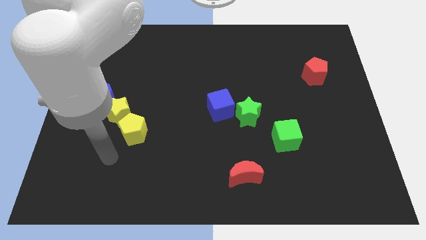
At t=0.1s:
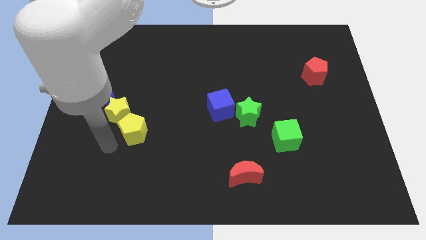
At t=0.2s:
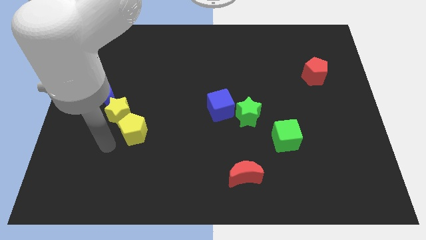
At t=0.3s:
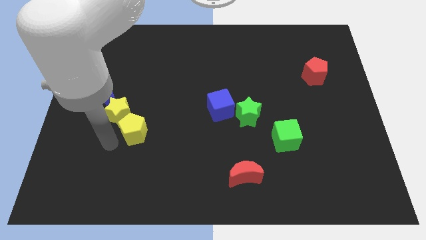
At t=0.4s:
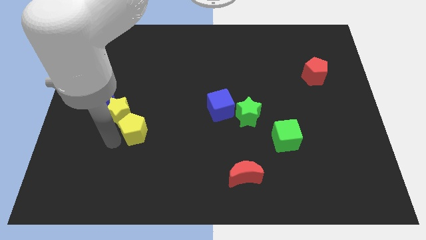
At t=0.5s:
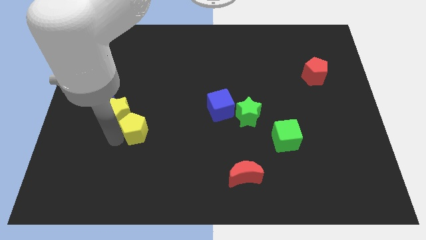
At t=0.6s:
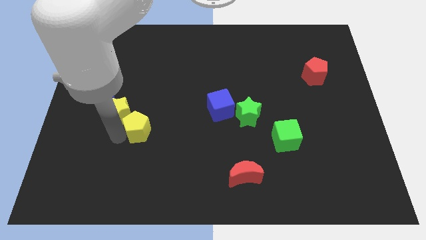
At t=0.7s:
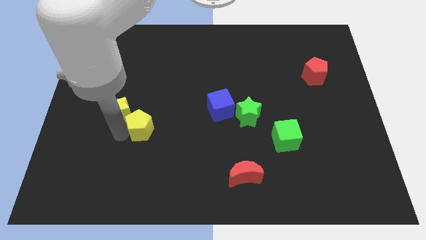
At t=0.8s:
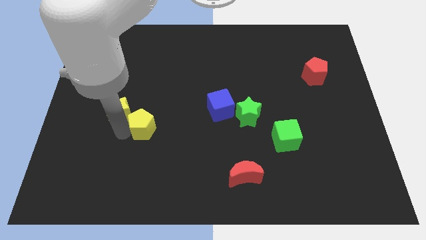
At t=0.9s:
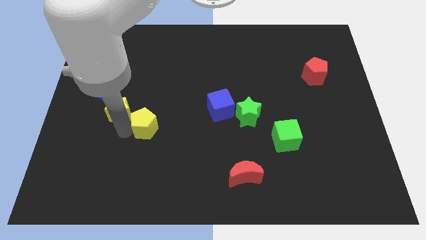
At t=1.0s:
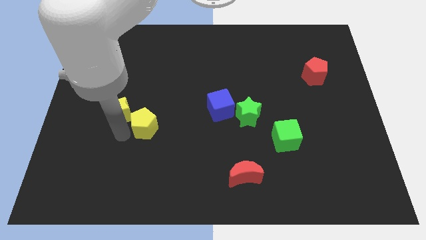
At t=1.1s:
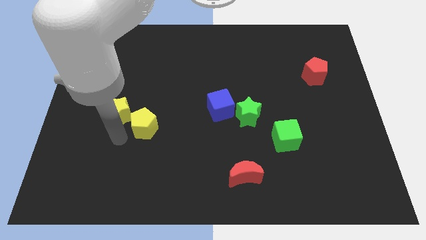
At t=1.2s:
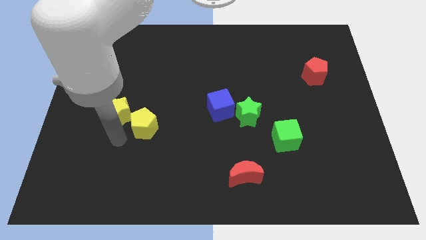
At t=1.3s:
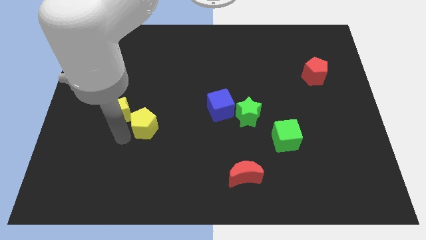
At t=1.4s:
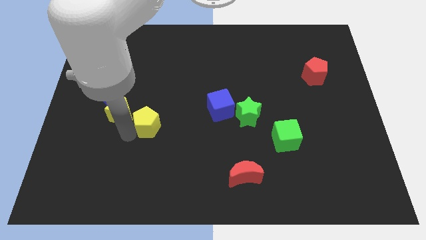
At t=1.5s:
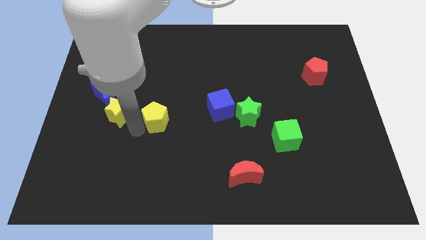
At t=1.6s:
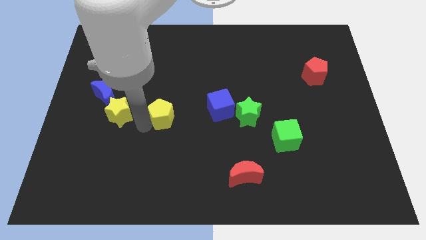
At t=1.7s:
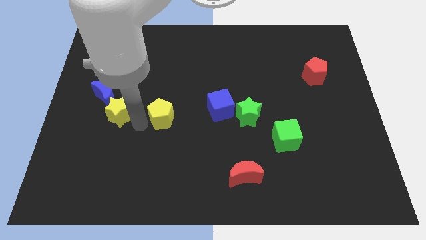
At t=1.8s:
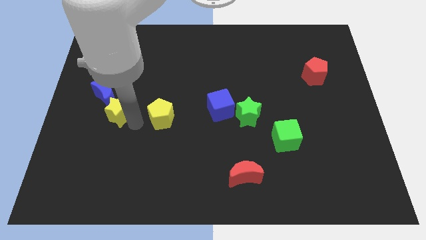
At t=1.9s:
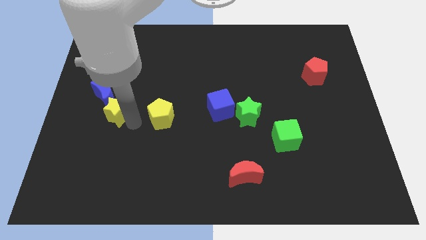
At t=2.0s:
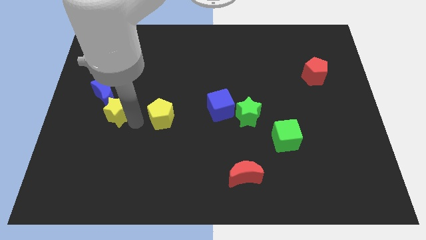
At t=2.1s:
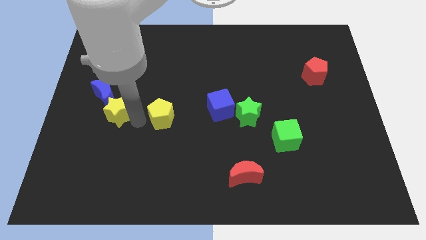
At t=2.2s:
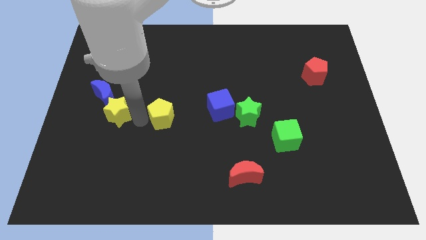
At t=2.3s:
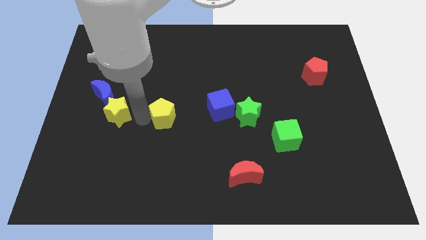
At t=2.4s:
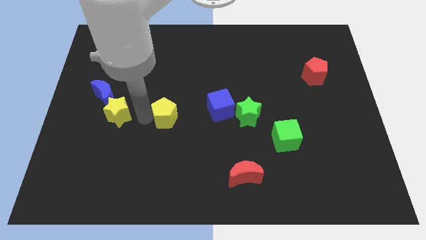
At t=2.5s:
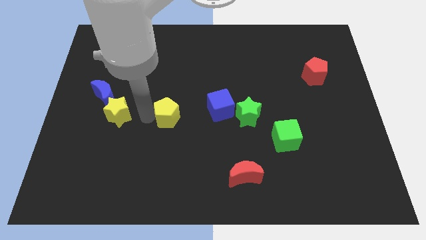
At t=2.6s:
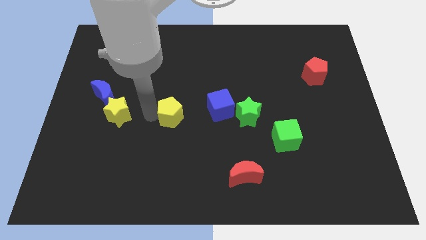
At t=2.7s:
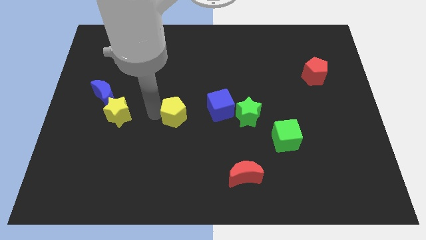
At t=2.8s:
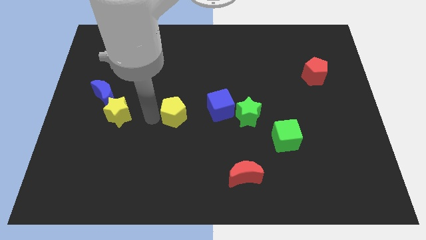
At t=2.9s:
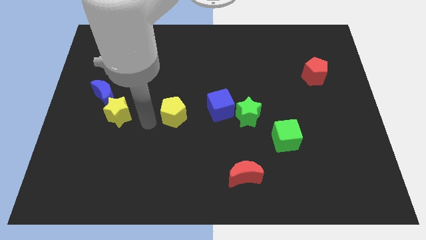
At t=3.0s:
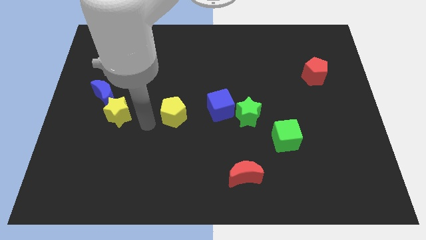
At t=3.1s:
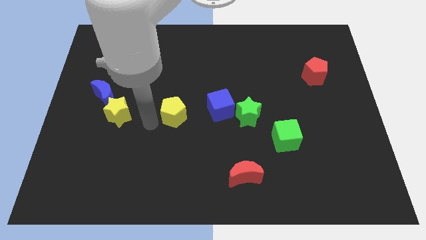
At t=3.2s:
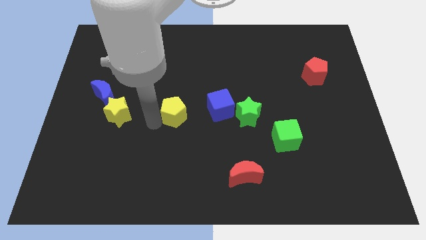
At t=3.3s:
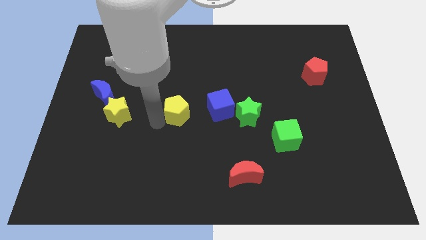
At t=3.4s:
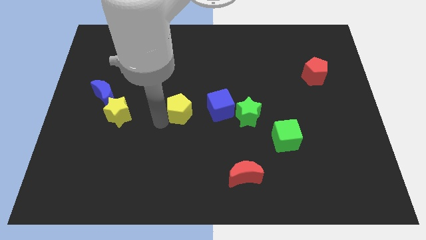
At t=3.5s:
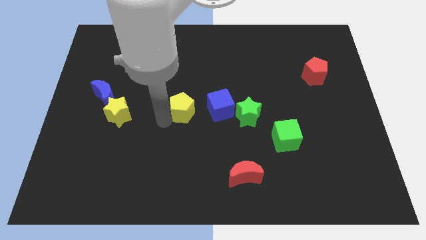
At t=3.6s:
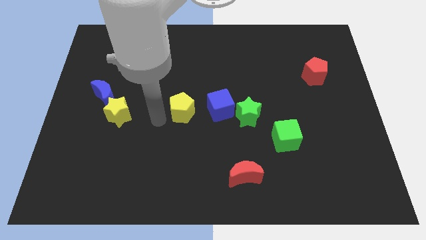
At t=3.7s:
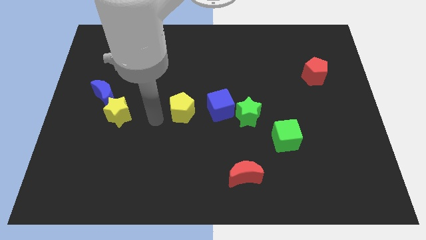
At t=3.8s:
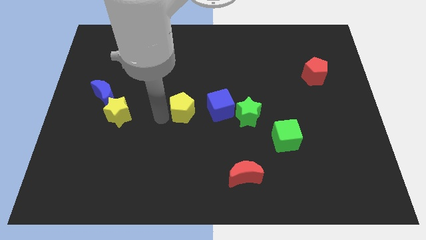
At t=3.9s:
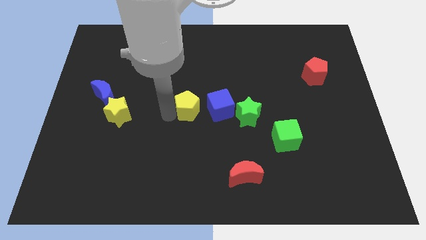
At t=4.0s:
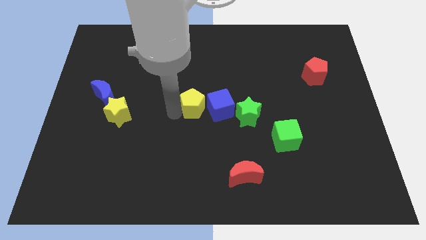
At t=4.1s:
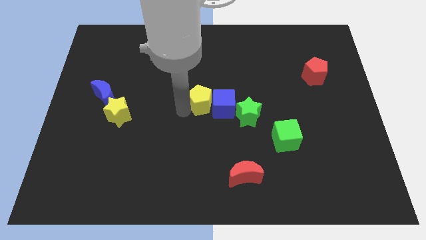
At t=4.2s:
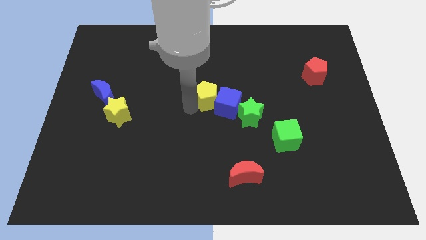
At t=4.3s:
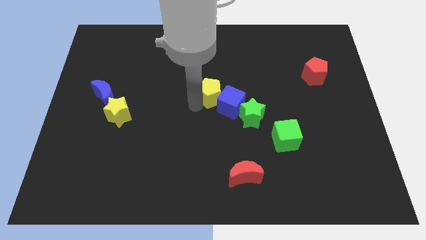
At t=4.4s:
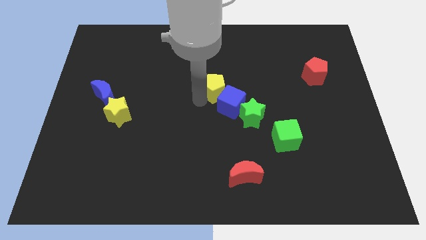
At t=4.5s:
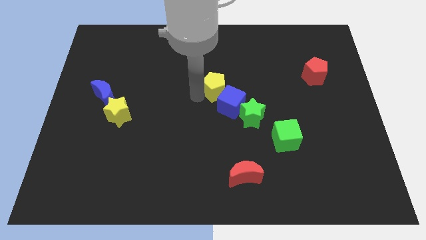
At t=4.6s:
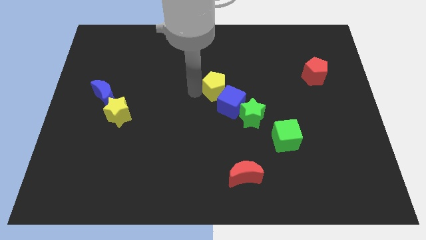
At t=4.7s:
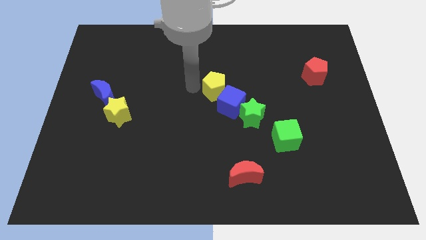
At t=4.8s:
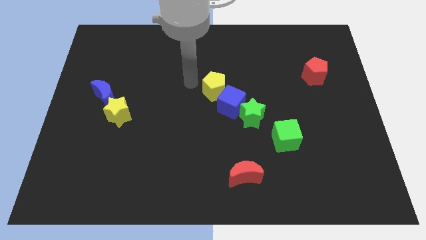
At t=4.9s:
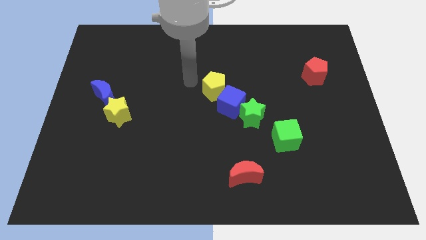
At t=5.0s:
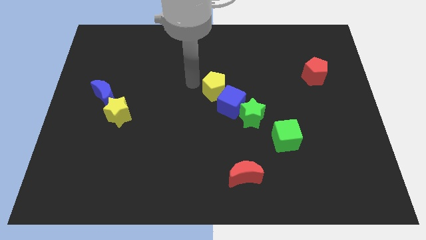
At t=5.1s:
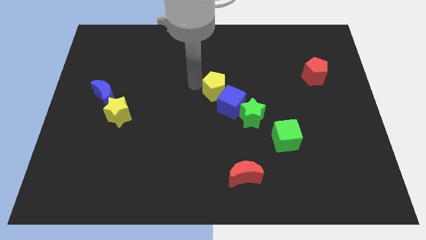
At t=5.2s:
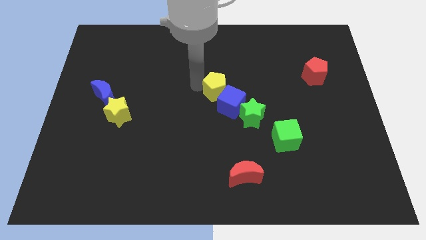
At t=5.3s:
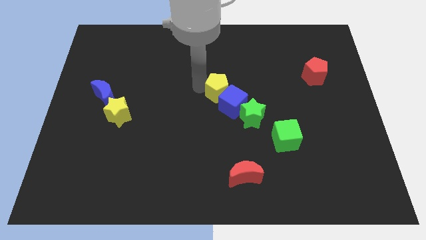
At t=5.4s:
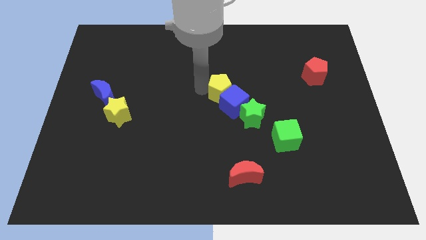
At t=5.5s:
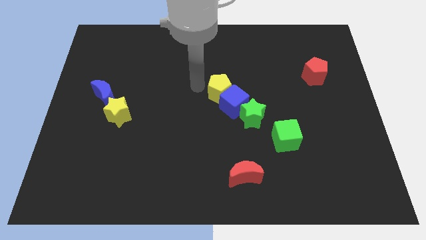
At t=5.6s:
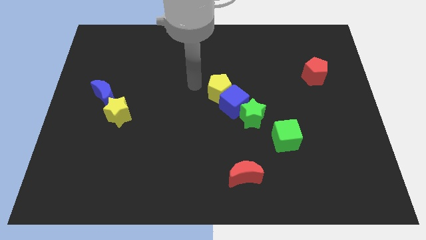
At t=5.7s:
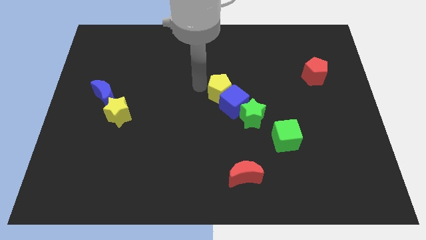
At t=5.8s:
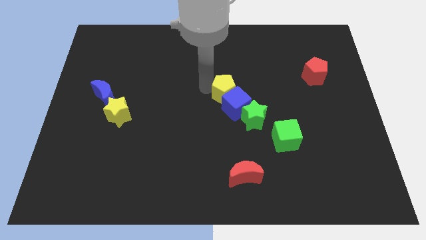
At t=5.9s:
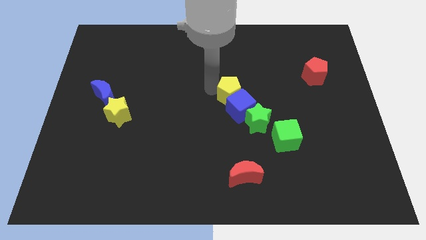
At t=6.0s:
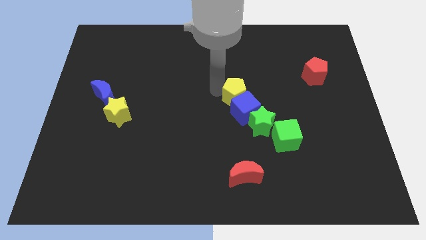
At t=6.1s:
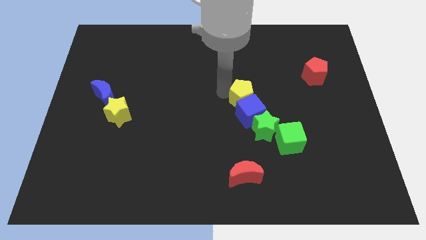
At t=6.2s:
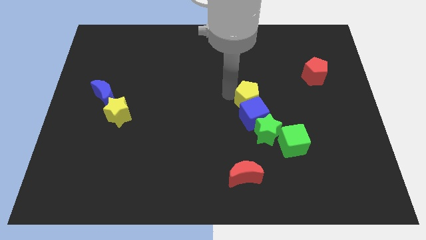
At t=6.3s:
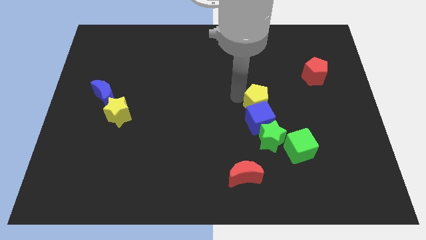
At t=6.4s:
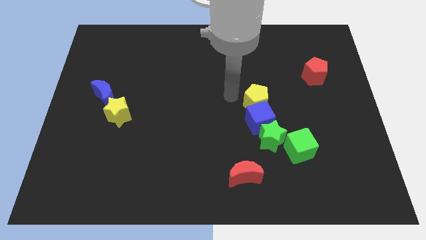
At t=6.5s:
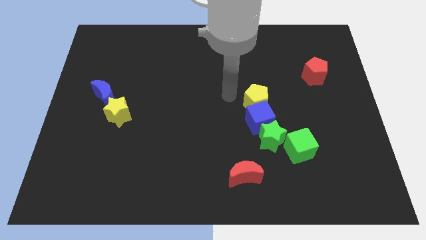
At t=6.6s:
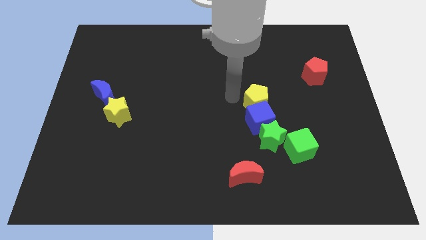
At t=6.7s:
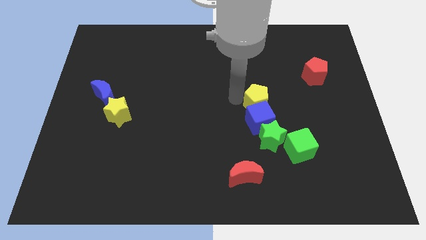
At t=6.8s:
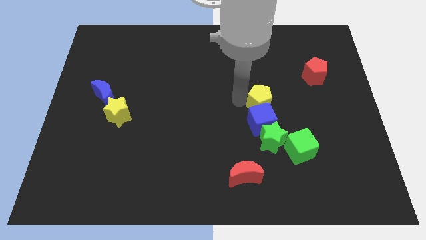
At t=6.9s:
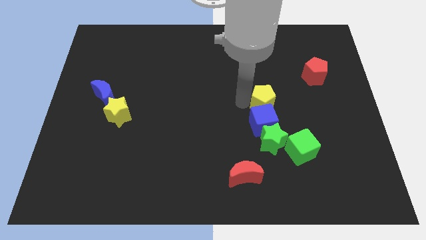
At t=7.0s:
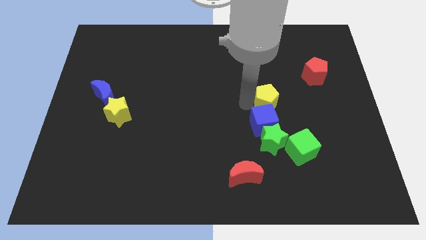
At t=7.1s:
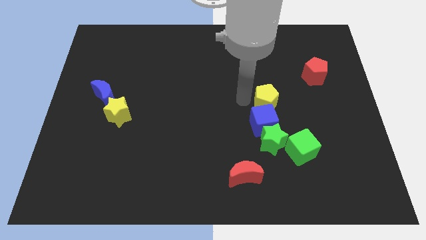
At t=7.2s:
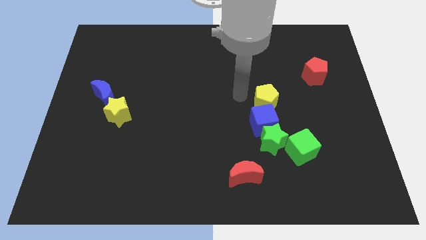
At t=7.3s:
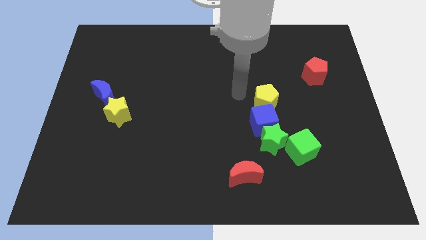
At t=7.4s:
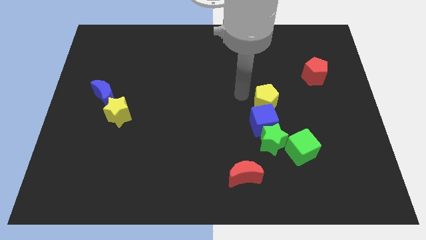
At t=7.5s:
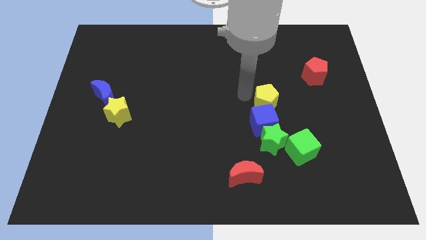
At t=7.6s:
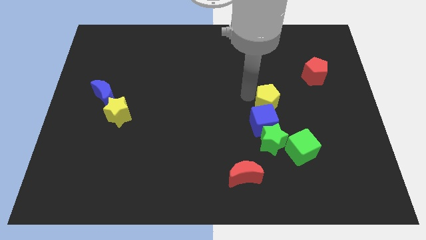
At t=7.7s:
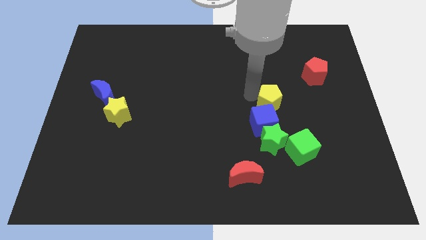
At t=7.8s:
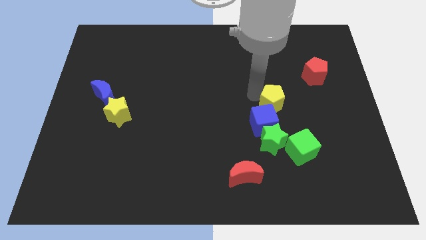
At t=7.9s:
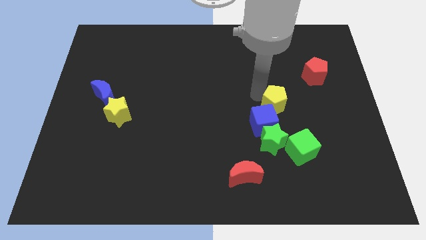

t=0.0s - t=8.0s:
put the yellow pentagon to the top of the green cube
